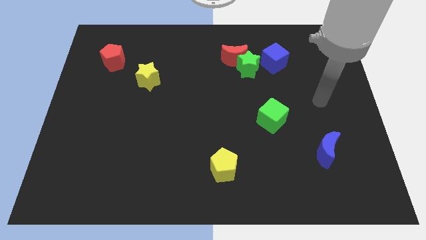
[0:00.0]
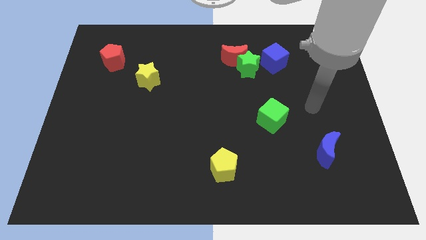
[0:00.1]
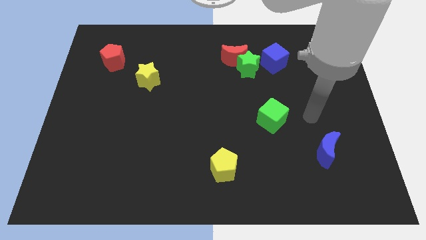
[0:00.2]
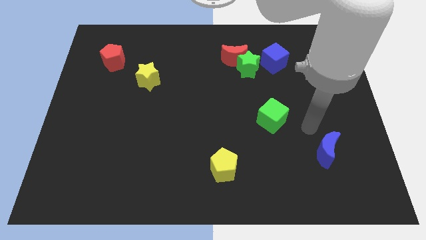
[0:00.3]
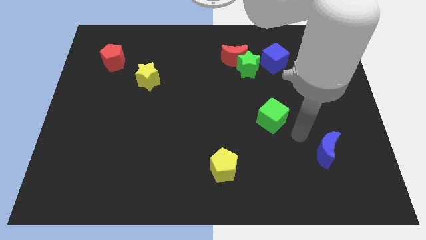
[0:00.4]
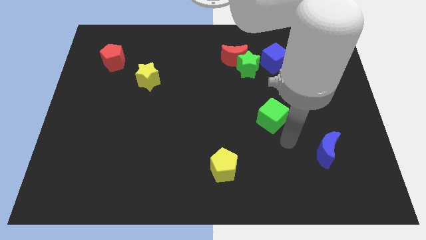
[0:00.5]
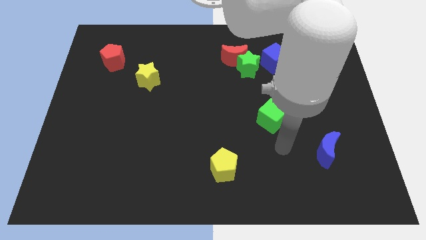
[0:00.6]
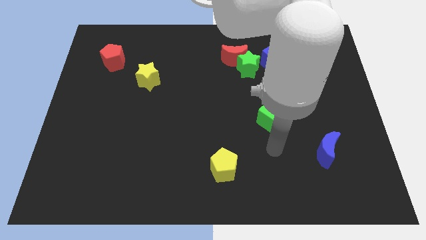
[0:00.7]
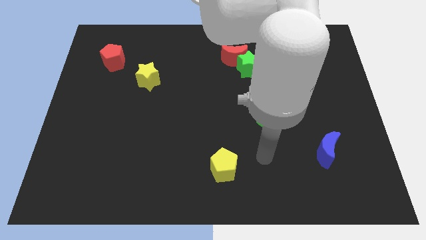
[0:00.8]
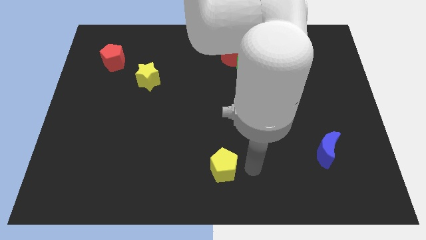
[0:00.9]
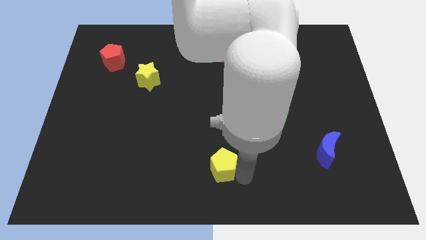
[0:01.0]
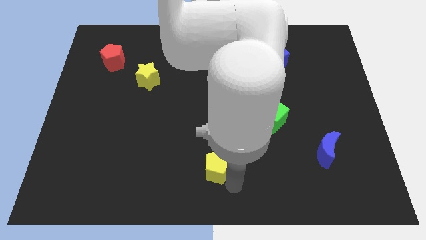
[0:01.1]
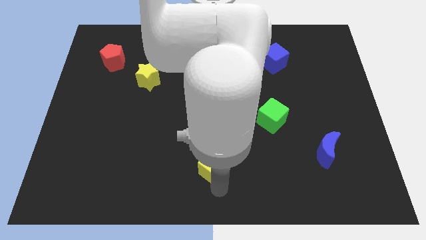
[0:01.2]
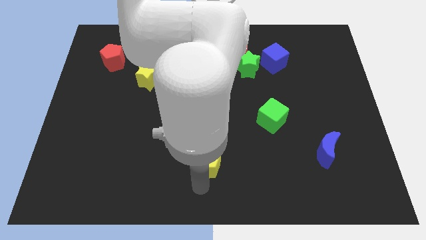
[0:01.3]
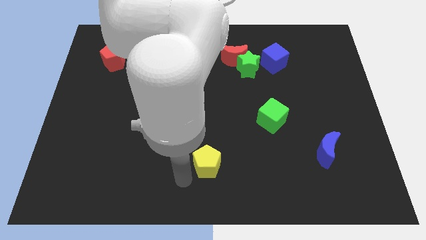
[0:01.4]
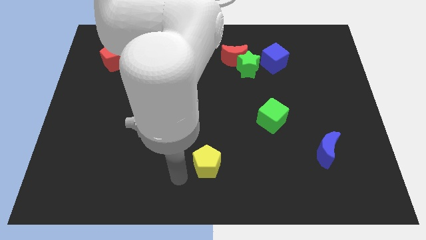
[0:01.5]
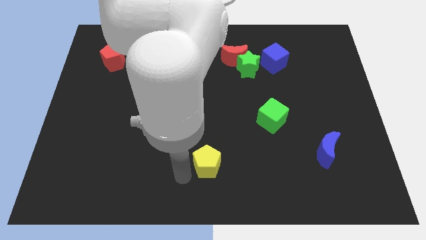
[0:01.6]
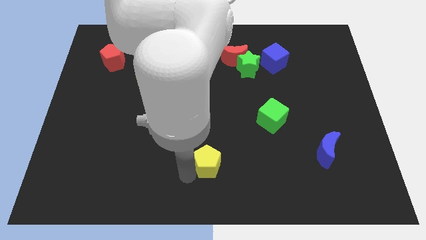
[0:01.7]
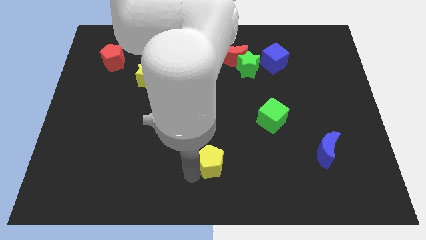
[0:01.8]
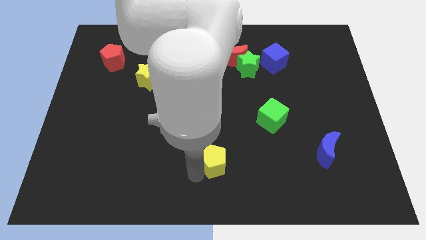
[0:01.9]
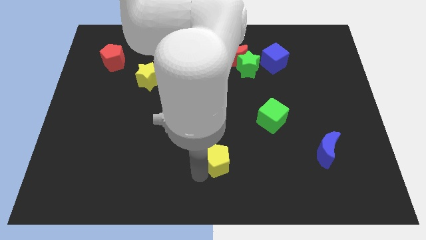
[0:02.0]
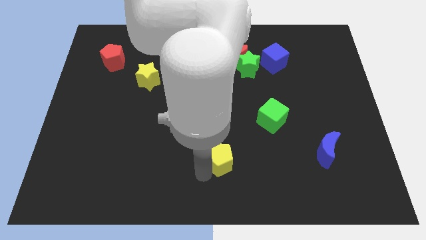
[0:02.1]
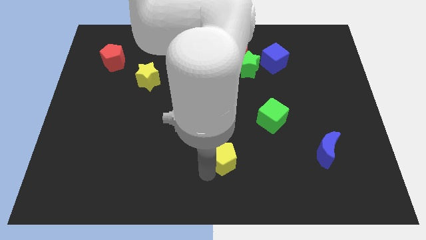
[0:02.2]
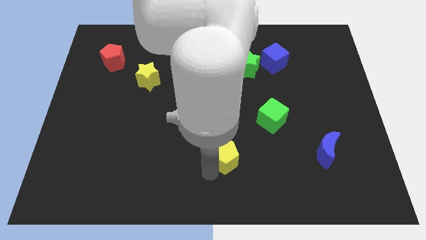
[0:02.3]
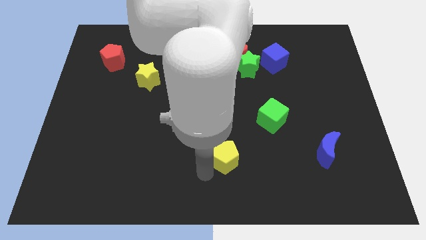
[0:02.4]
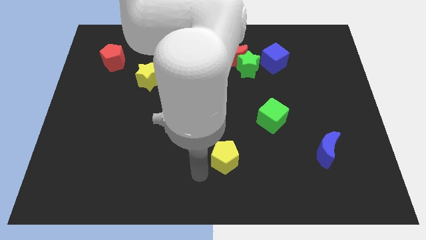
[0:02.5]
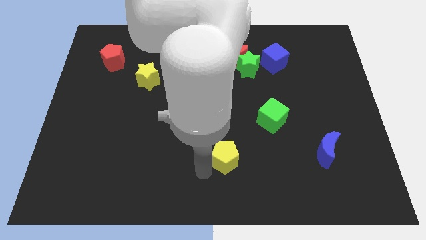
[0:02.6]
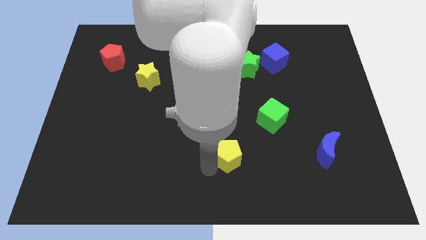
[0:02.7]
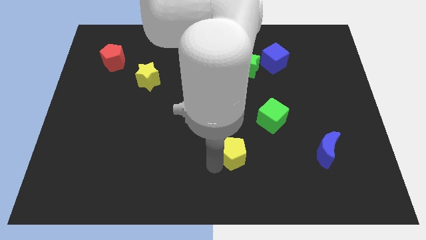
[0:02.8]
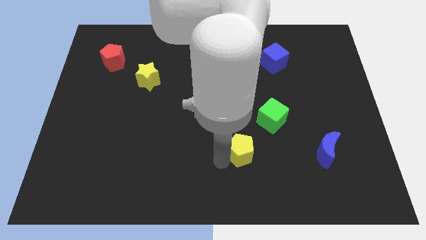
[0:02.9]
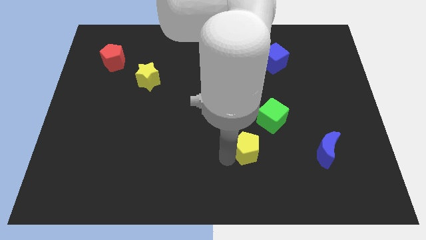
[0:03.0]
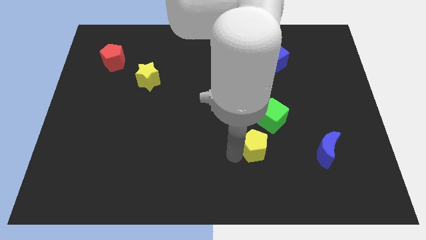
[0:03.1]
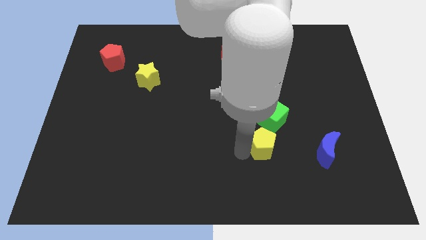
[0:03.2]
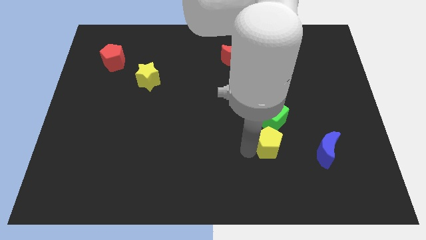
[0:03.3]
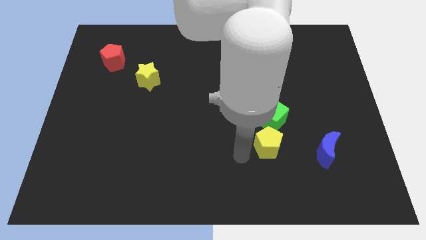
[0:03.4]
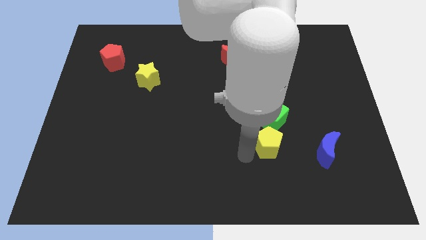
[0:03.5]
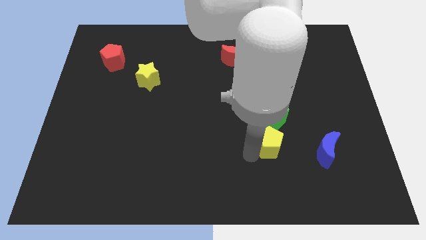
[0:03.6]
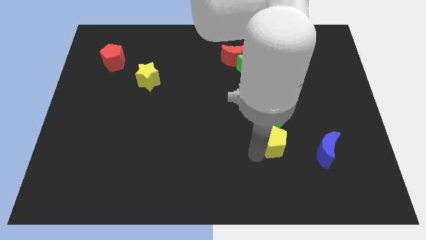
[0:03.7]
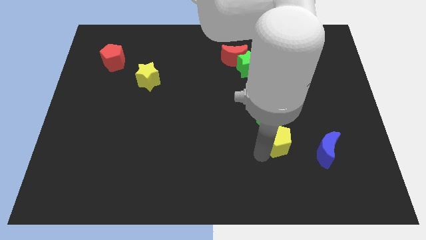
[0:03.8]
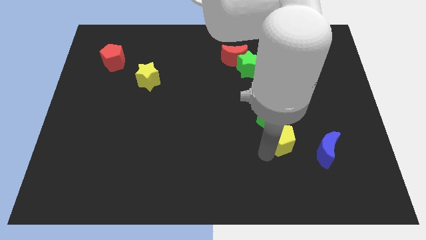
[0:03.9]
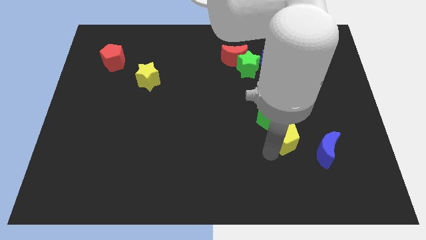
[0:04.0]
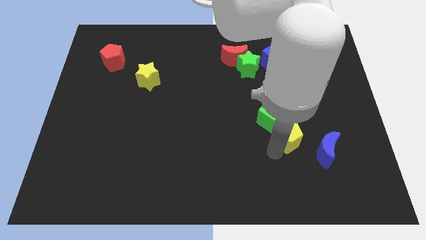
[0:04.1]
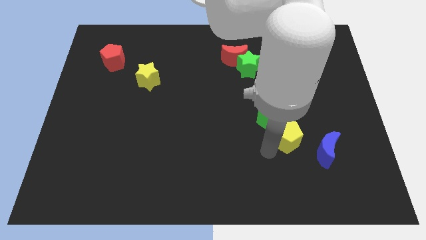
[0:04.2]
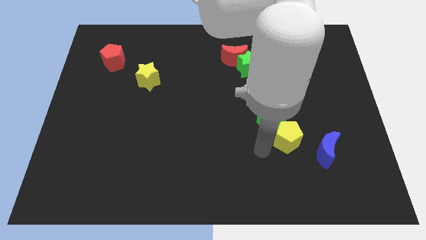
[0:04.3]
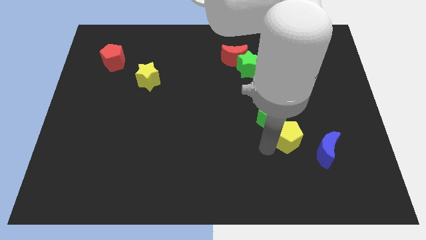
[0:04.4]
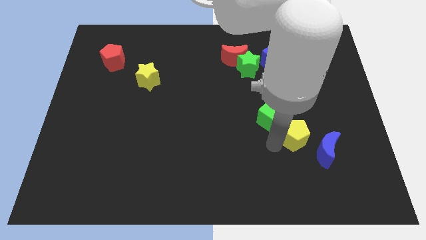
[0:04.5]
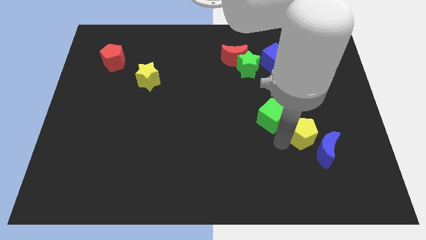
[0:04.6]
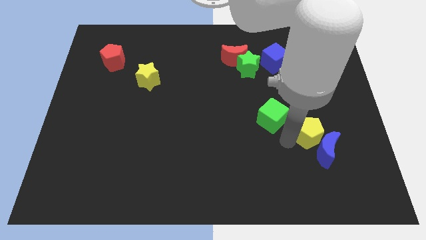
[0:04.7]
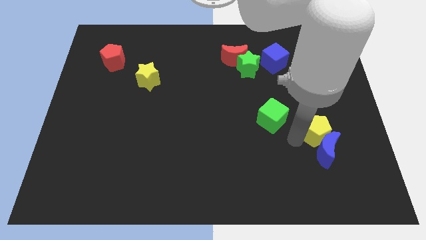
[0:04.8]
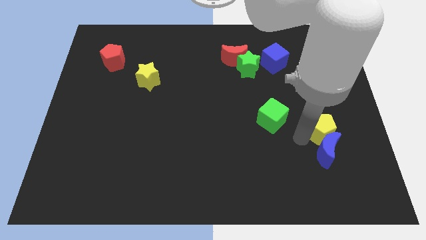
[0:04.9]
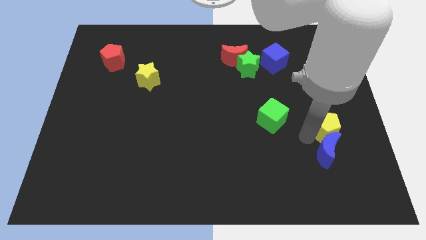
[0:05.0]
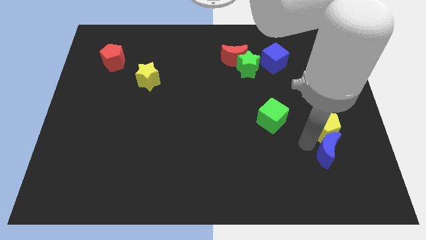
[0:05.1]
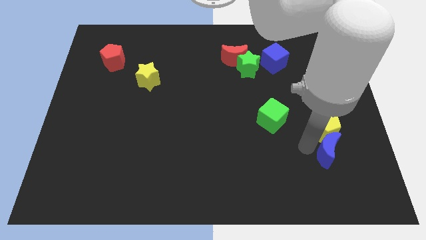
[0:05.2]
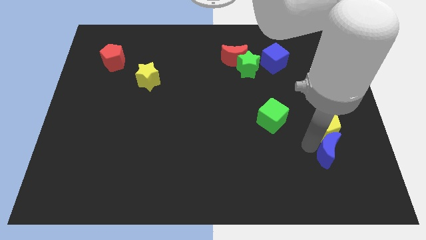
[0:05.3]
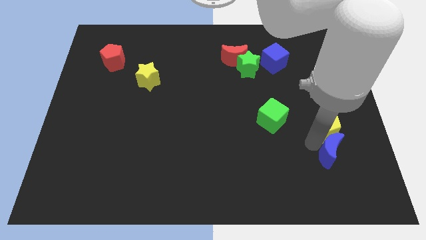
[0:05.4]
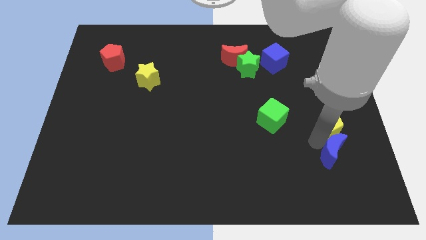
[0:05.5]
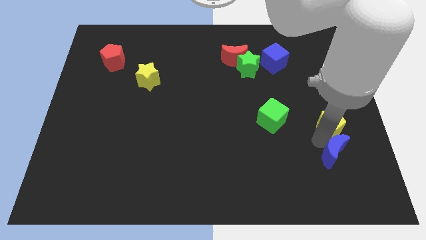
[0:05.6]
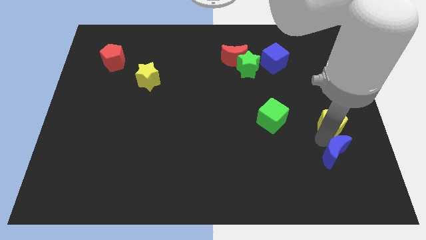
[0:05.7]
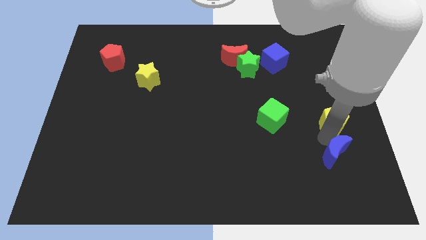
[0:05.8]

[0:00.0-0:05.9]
move the yellow pentagon to the right side
